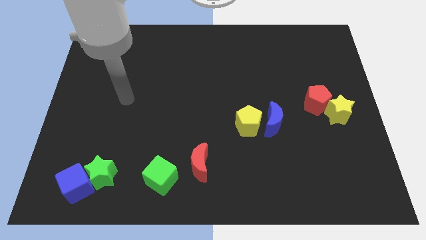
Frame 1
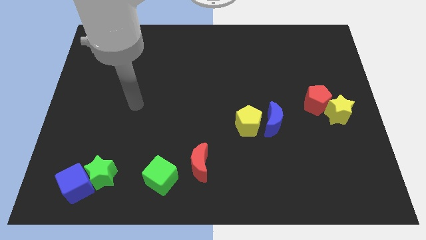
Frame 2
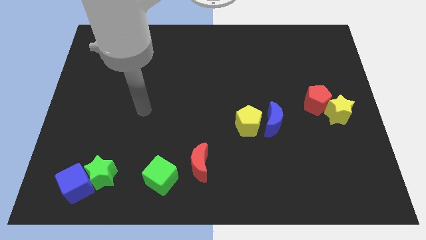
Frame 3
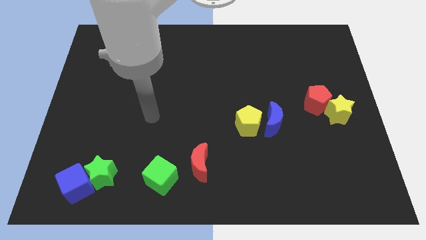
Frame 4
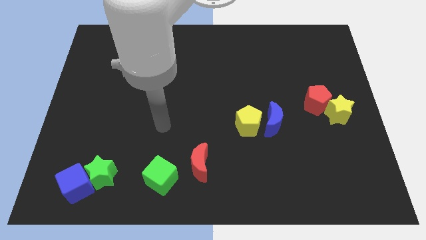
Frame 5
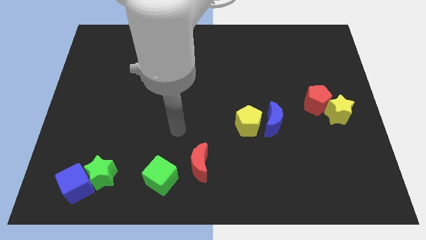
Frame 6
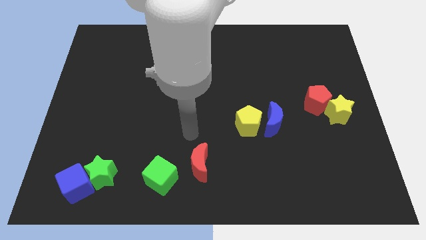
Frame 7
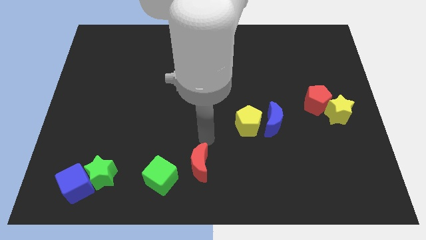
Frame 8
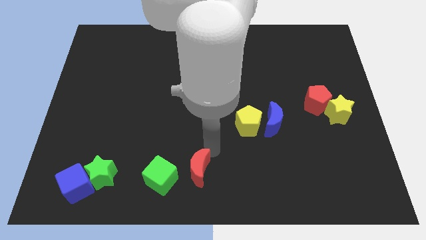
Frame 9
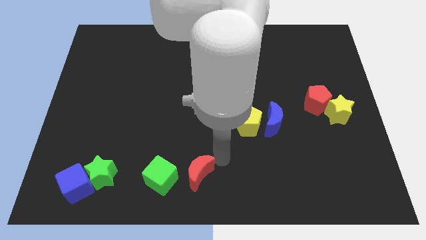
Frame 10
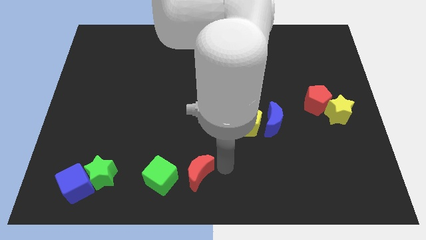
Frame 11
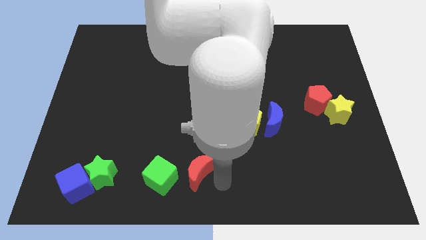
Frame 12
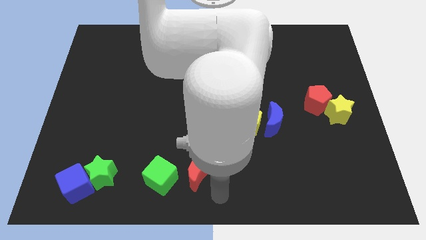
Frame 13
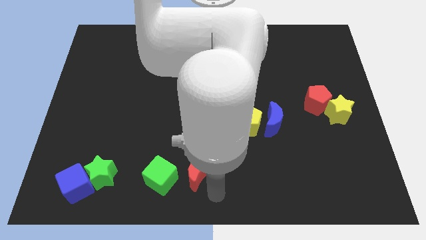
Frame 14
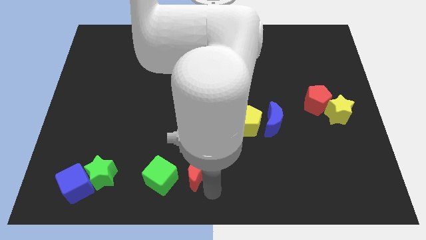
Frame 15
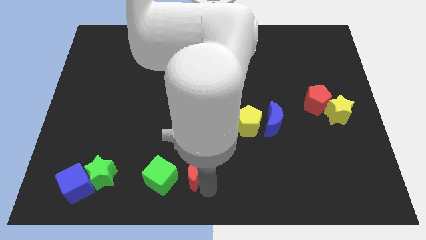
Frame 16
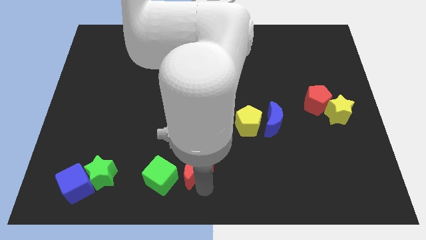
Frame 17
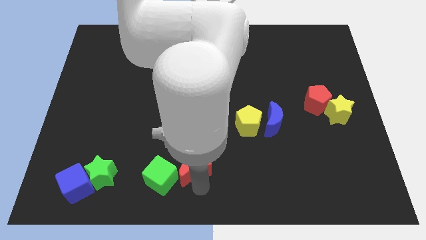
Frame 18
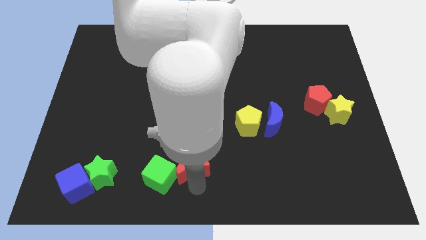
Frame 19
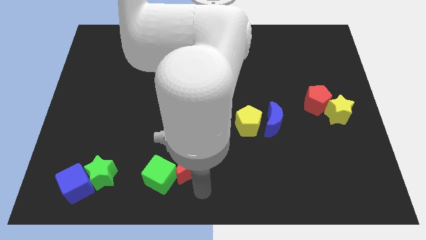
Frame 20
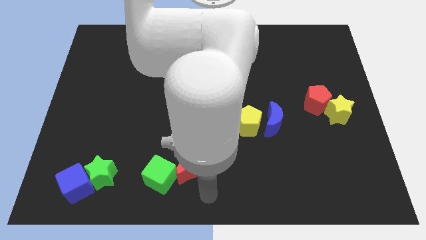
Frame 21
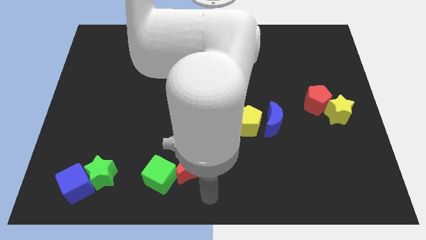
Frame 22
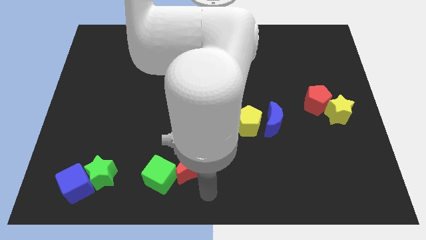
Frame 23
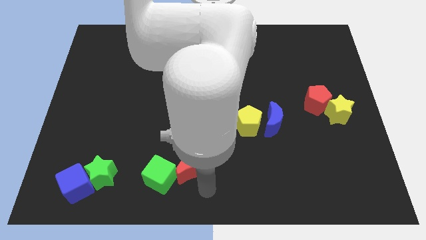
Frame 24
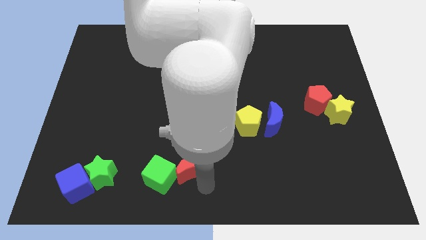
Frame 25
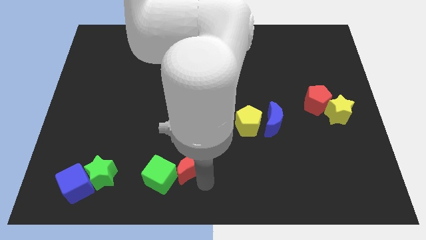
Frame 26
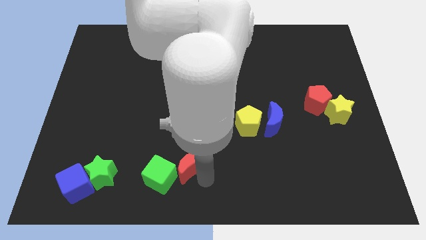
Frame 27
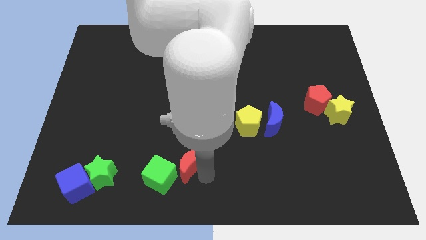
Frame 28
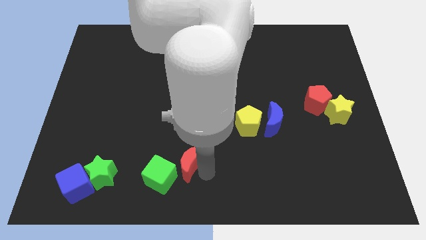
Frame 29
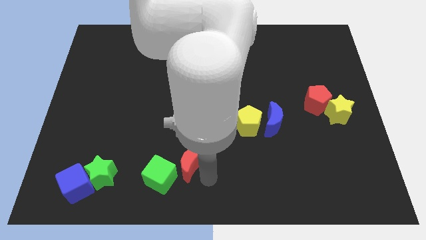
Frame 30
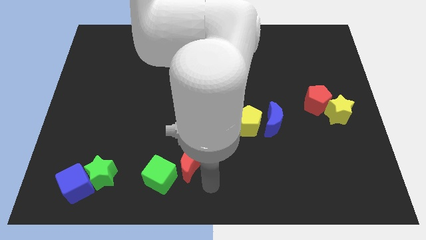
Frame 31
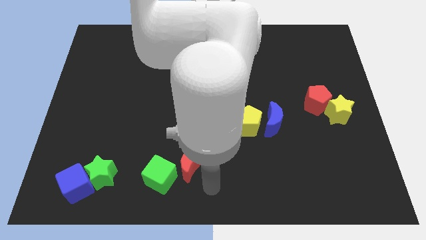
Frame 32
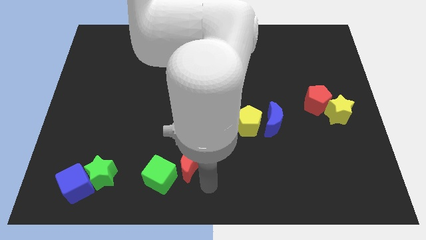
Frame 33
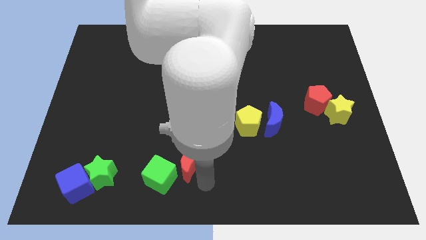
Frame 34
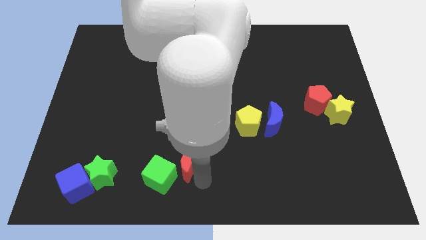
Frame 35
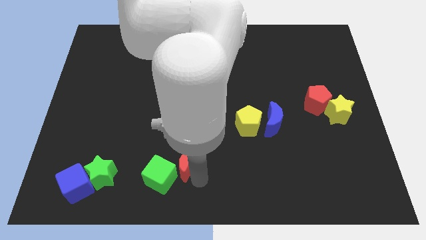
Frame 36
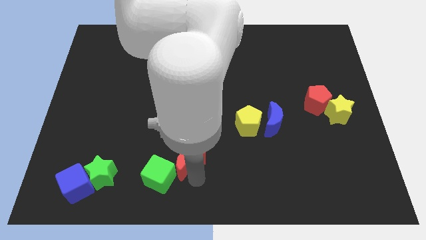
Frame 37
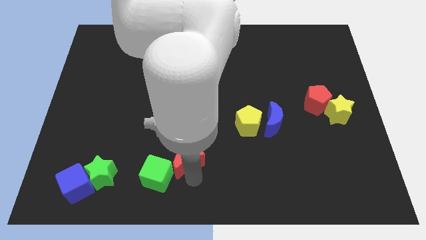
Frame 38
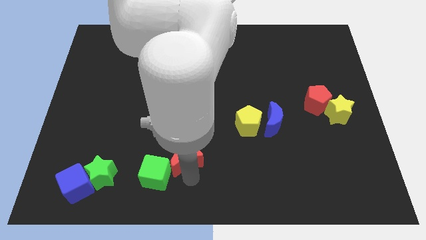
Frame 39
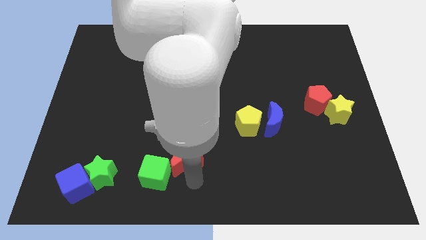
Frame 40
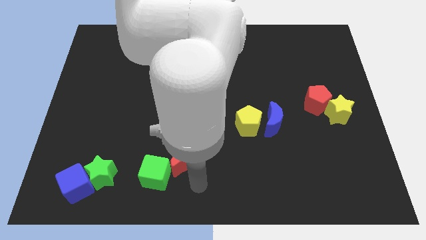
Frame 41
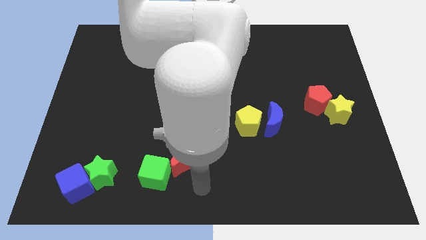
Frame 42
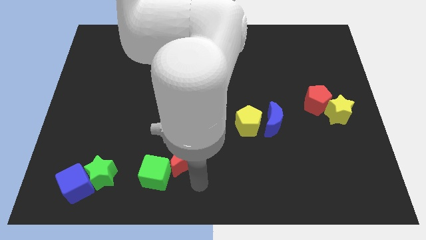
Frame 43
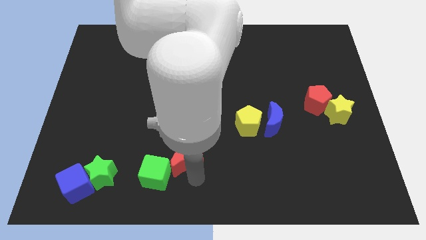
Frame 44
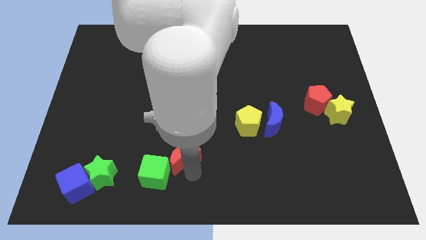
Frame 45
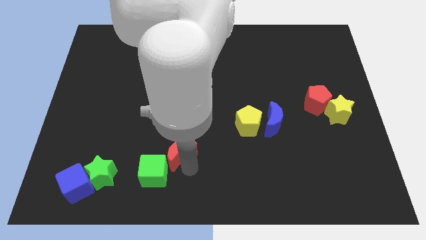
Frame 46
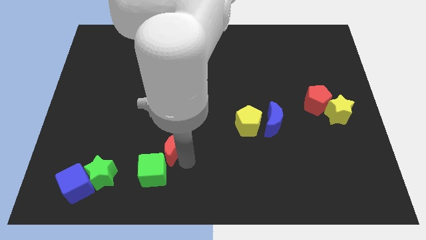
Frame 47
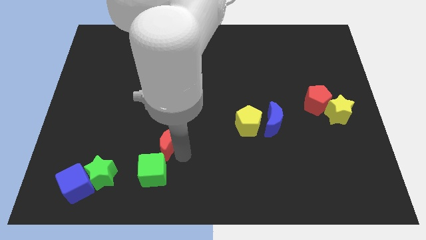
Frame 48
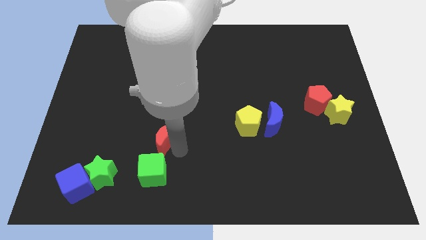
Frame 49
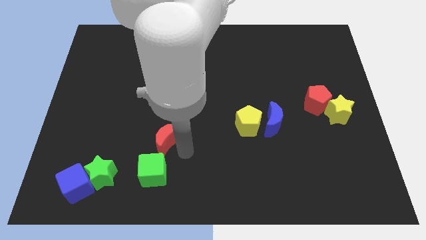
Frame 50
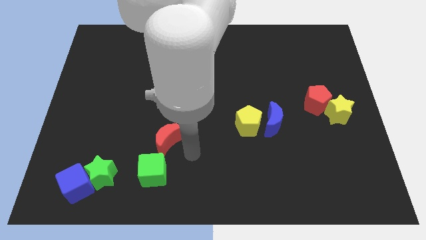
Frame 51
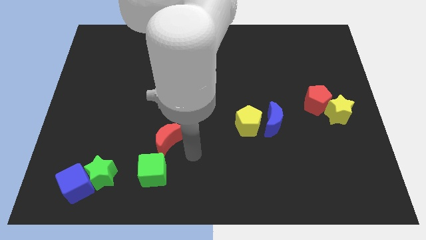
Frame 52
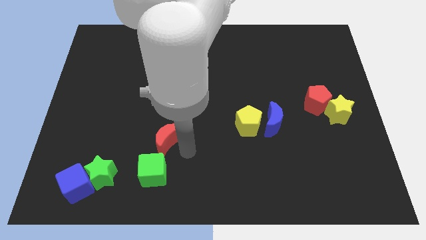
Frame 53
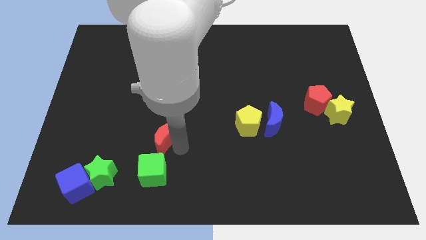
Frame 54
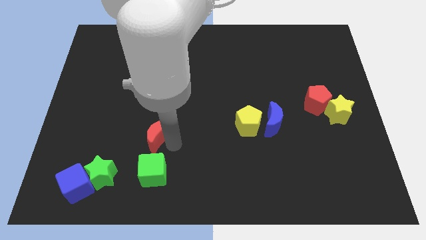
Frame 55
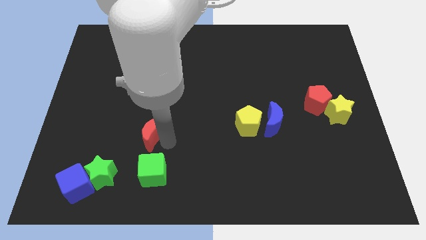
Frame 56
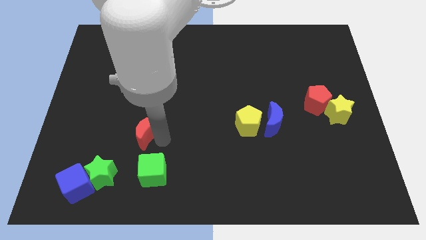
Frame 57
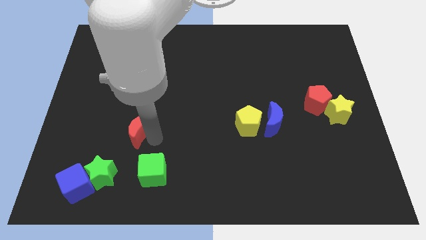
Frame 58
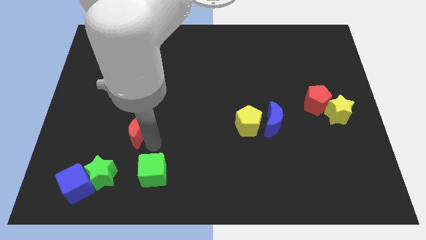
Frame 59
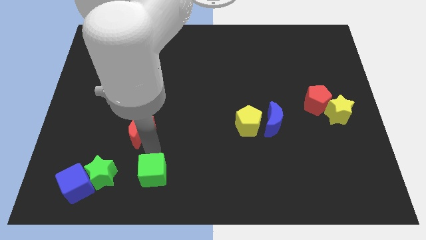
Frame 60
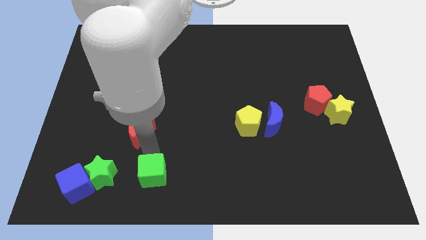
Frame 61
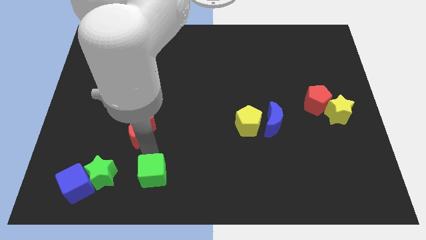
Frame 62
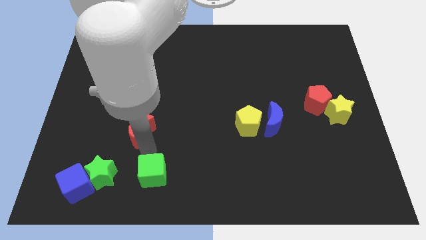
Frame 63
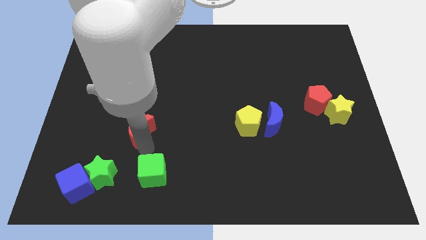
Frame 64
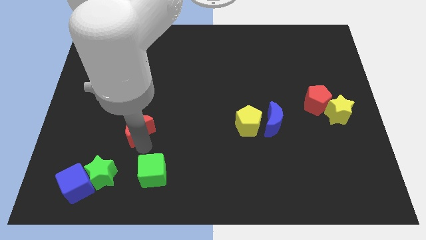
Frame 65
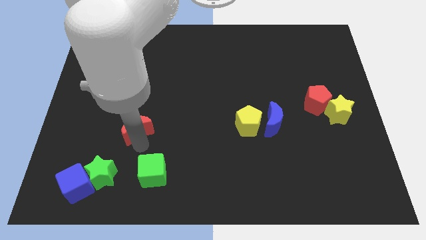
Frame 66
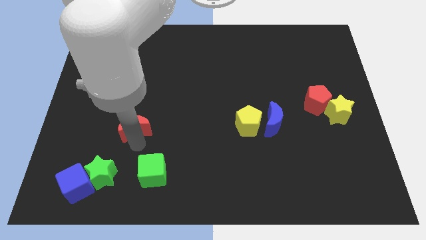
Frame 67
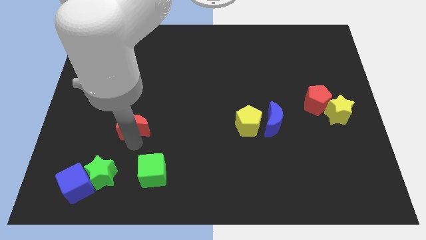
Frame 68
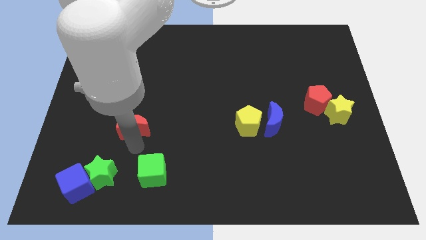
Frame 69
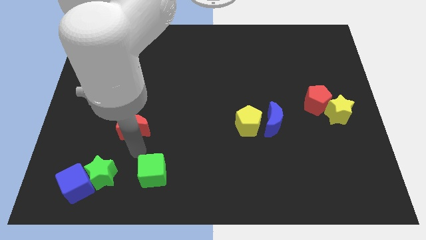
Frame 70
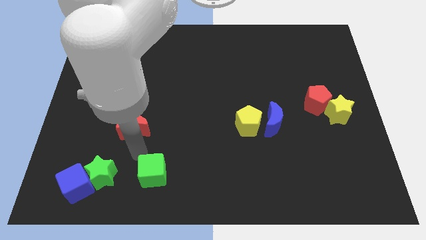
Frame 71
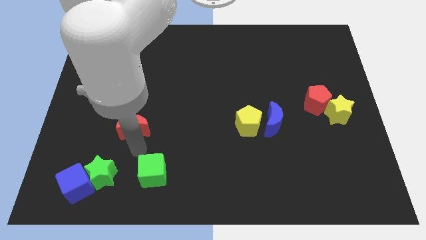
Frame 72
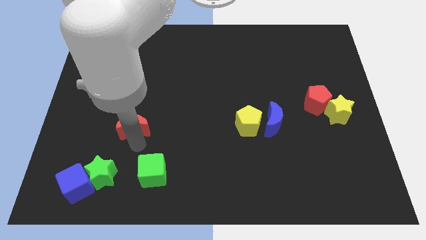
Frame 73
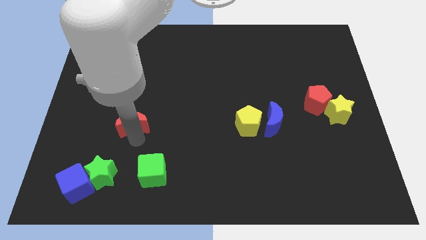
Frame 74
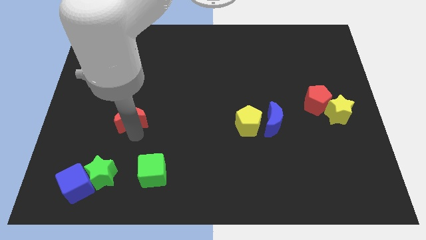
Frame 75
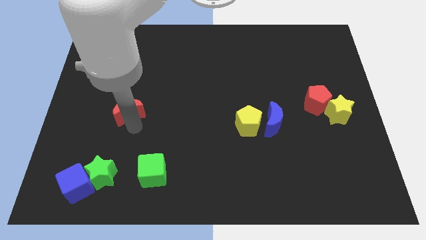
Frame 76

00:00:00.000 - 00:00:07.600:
move the red moon upwards and to the left
